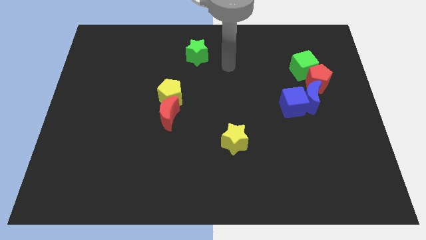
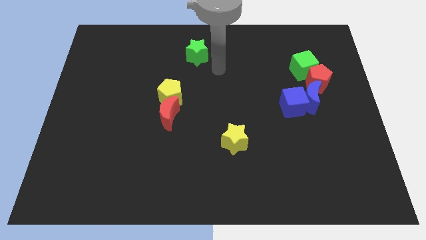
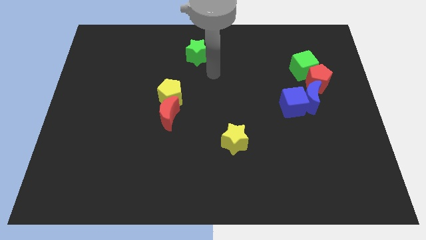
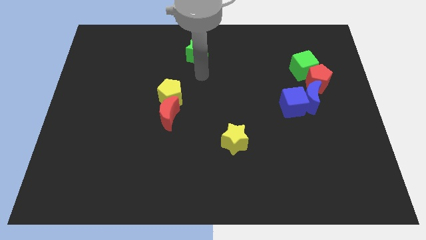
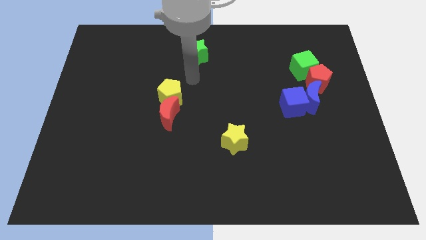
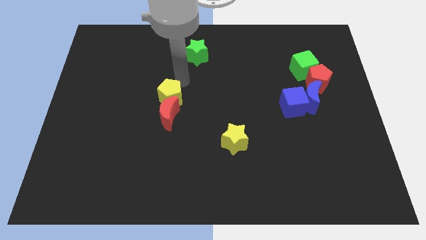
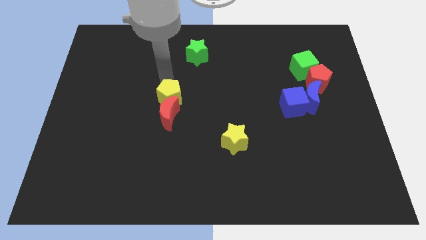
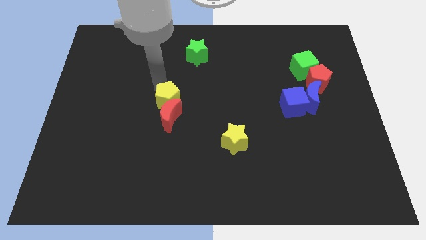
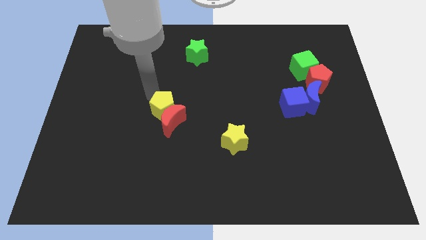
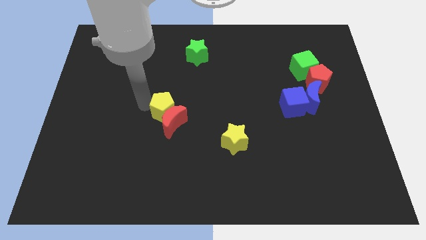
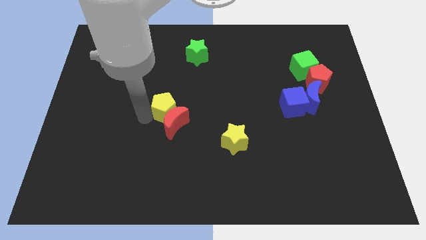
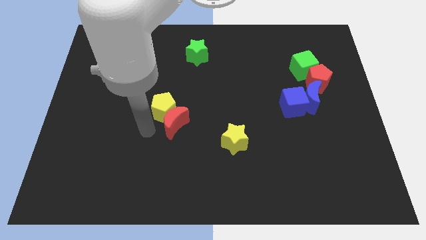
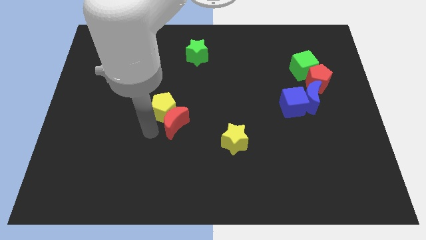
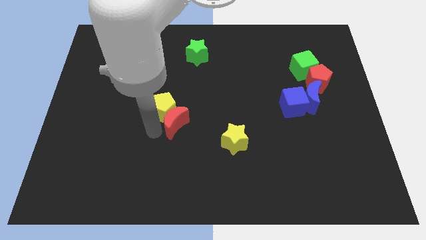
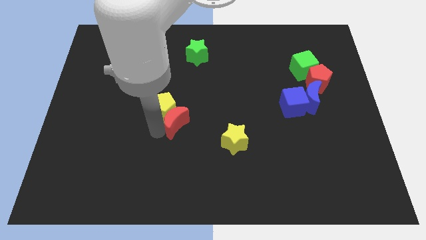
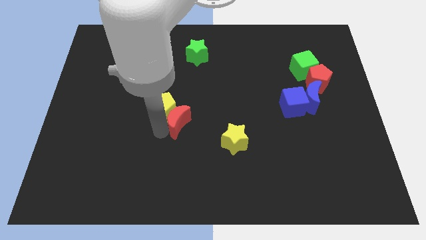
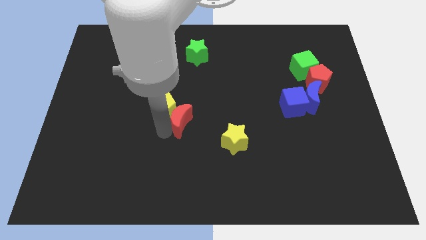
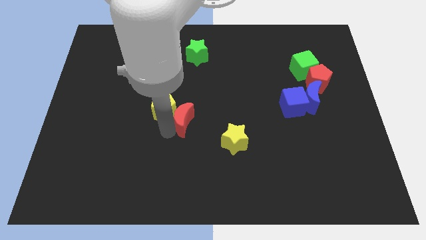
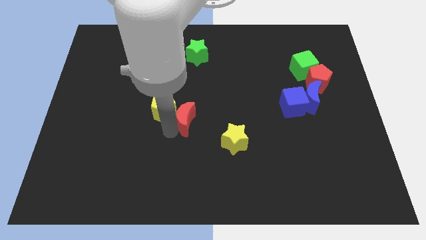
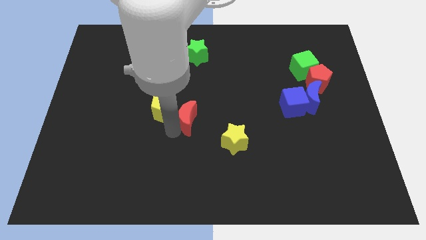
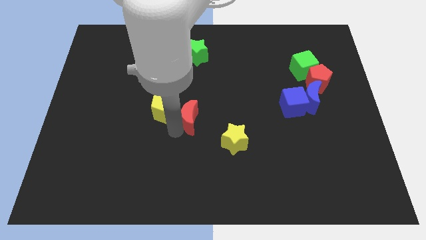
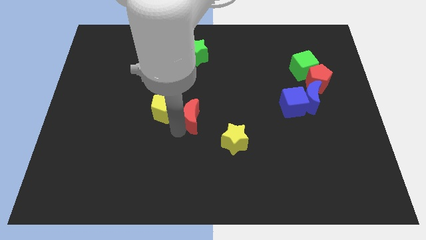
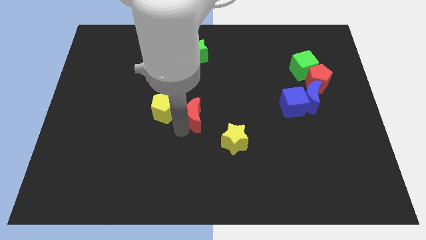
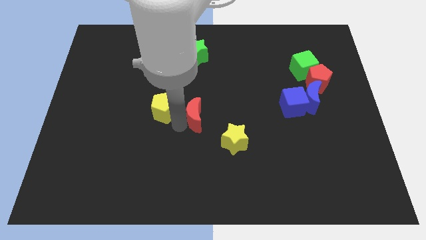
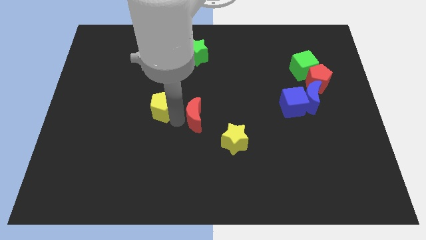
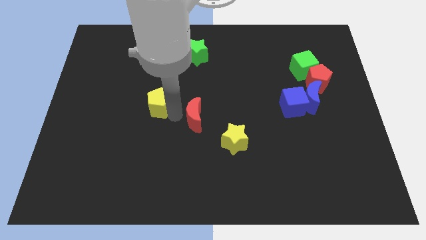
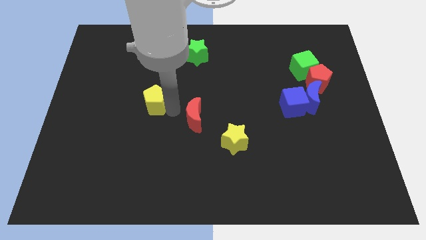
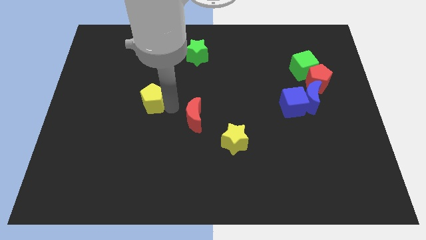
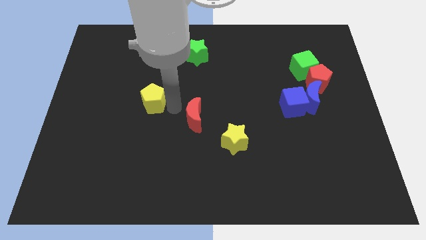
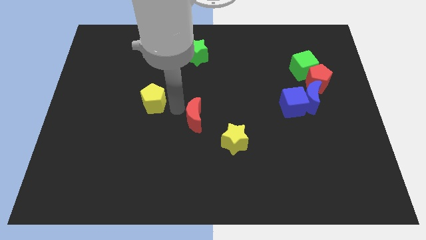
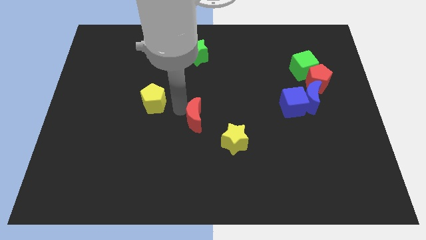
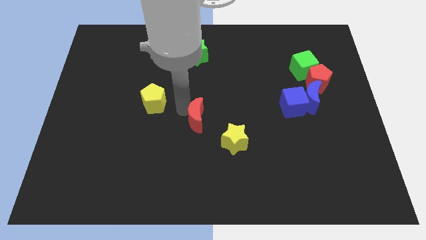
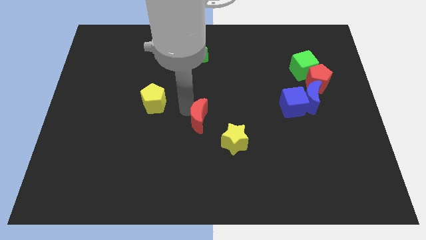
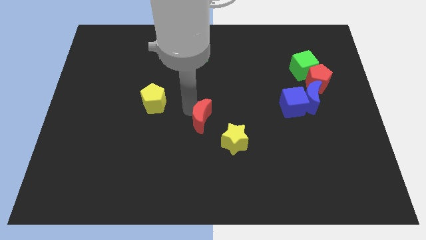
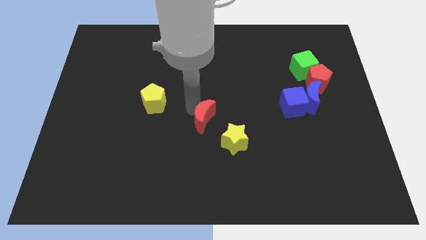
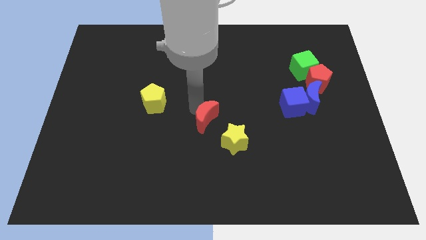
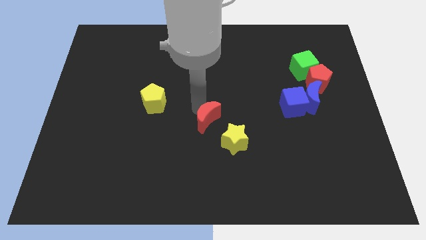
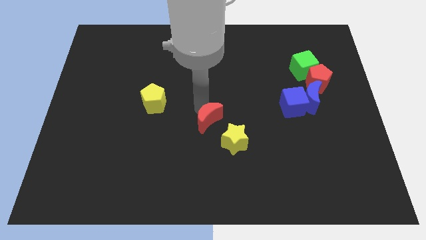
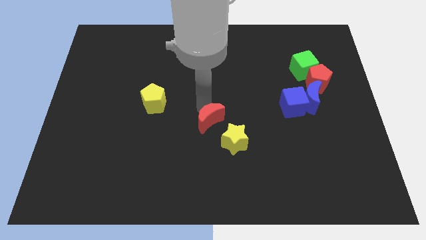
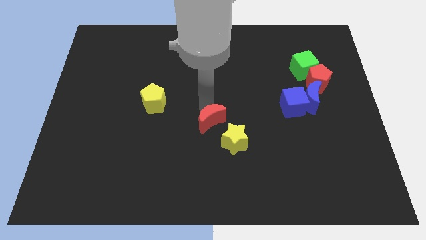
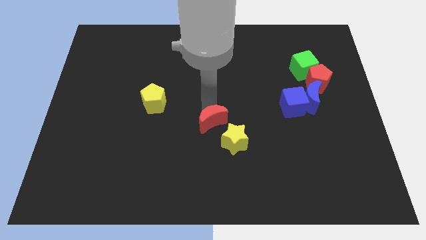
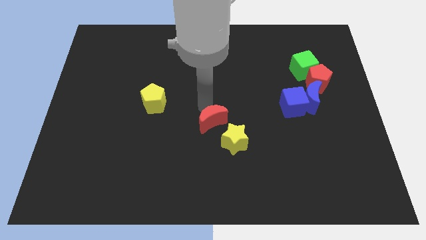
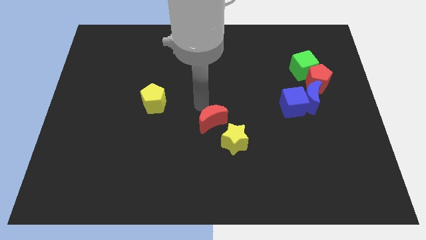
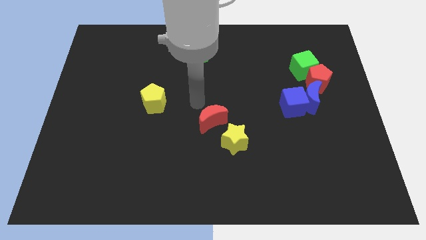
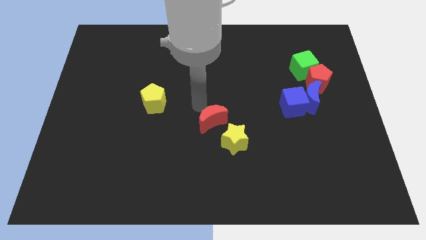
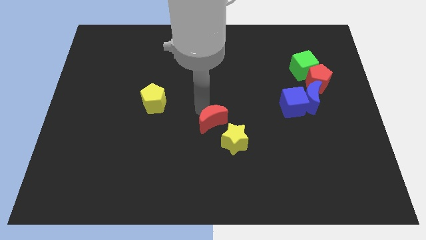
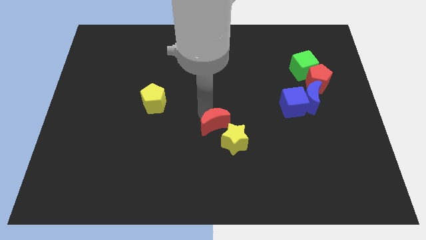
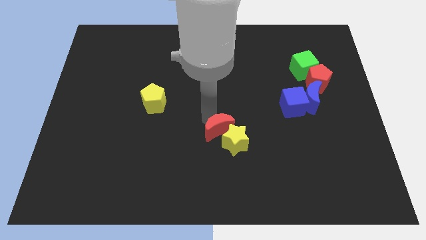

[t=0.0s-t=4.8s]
slide the red moon towards the yellow star

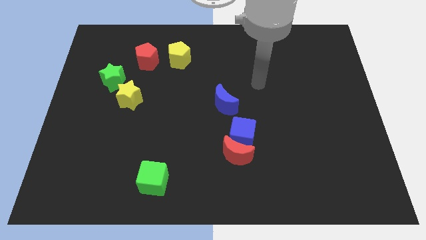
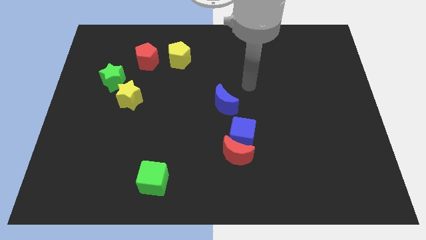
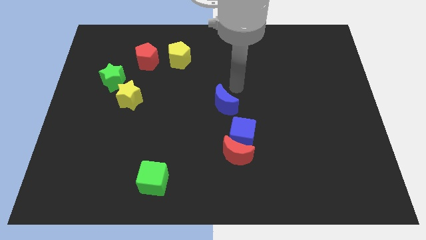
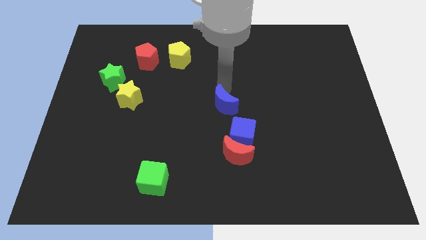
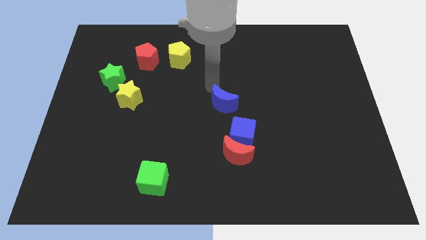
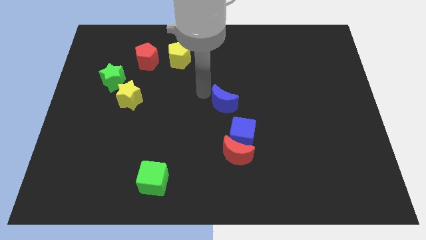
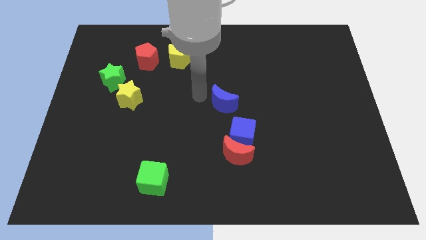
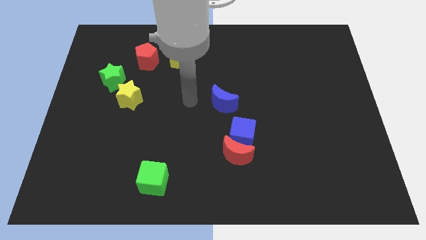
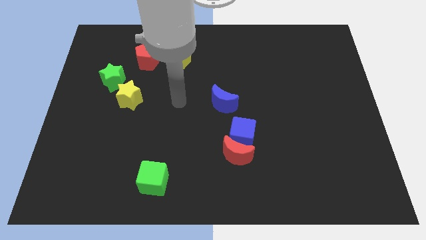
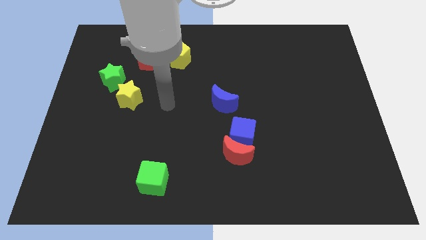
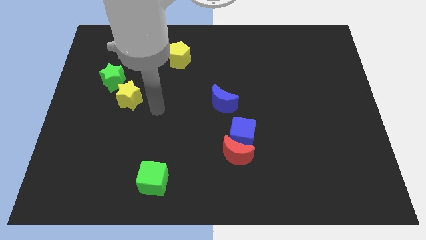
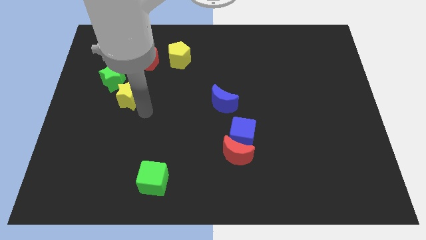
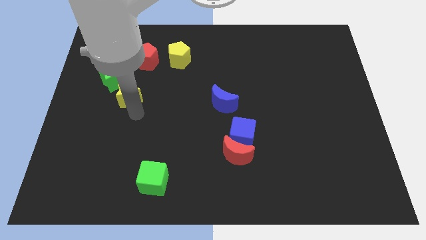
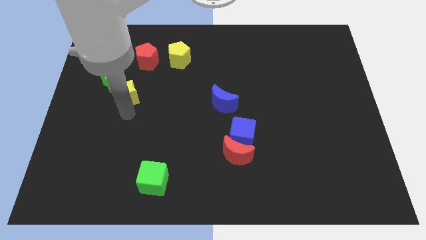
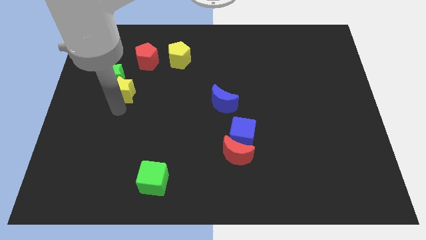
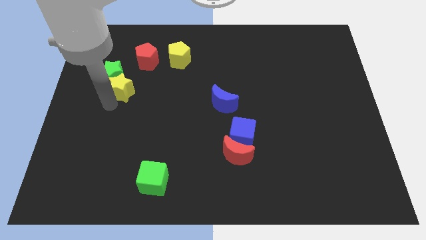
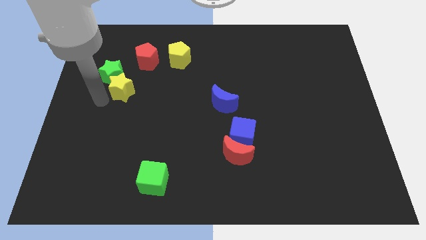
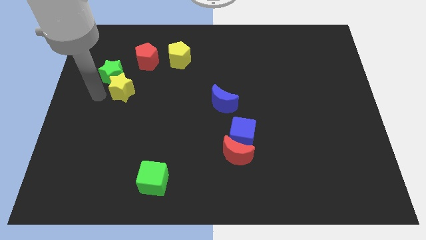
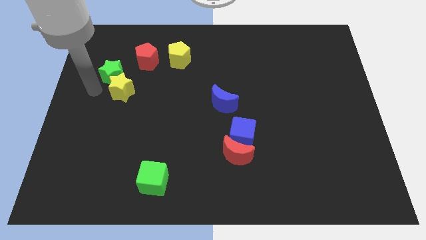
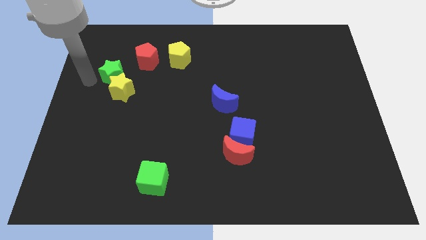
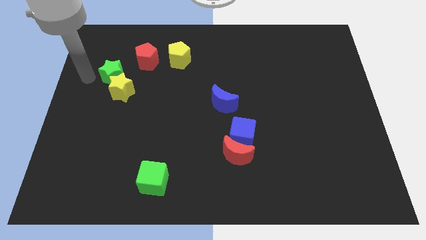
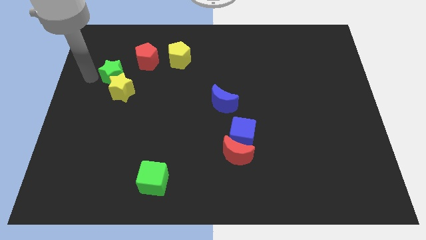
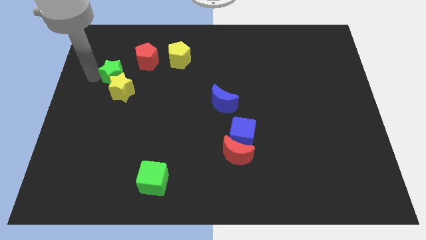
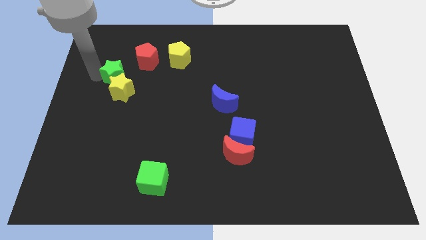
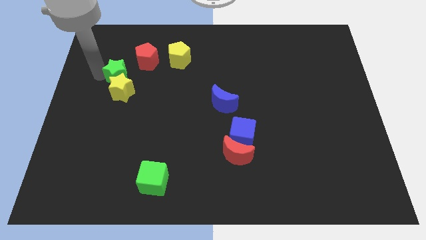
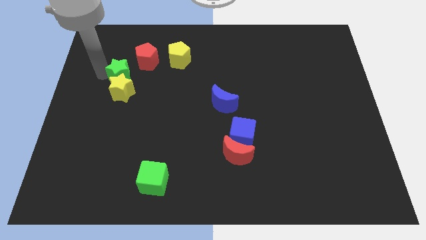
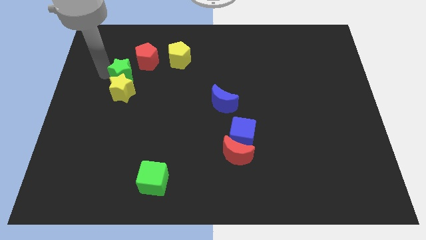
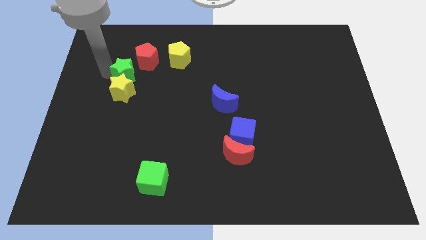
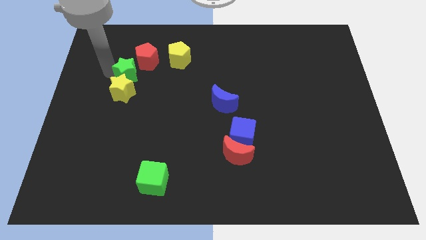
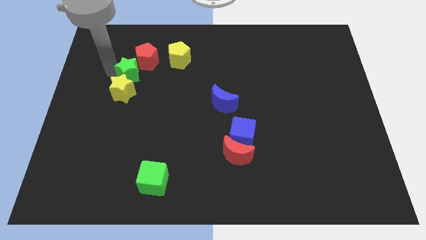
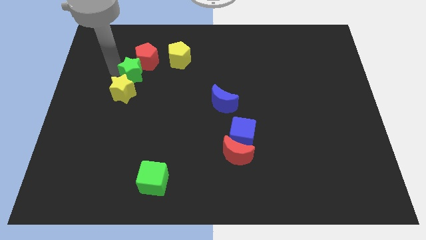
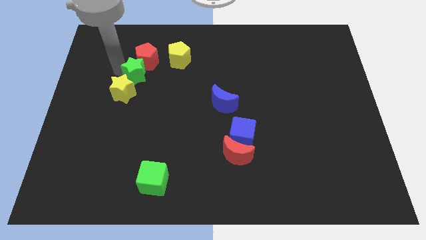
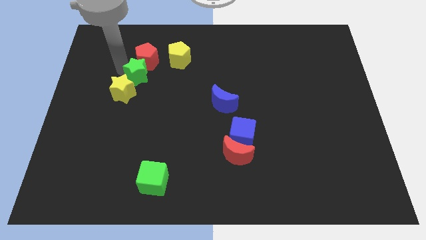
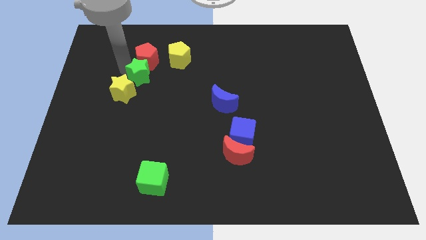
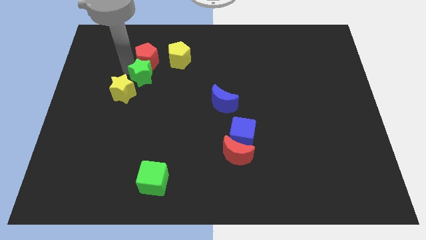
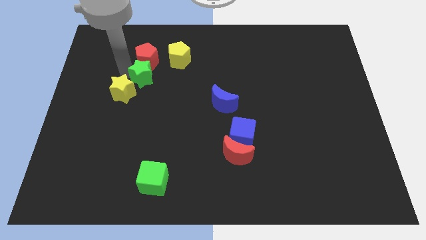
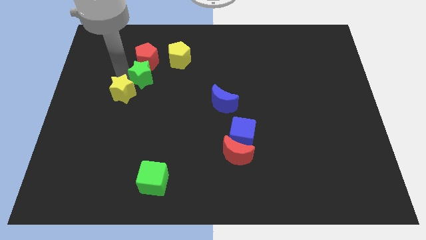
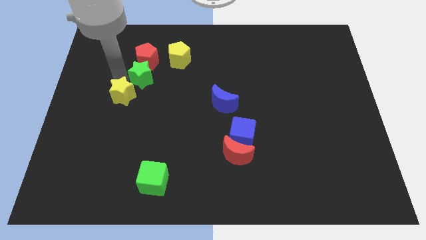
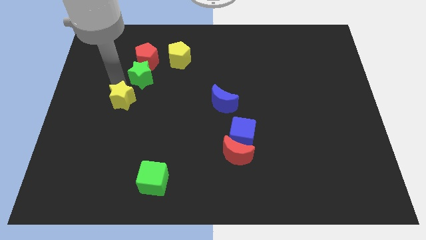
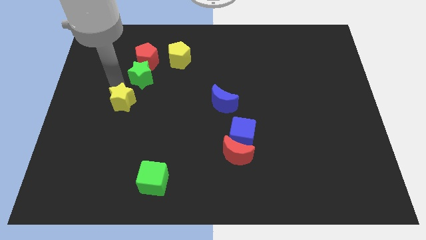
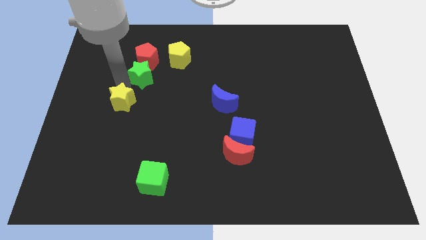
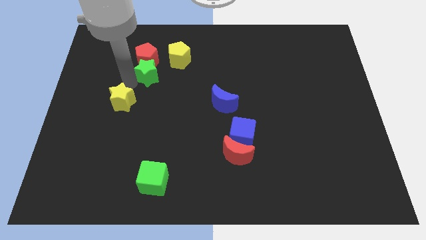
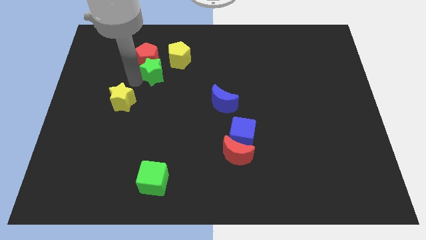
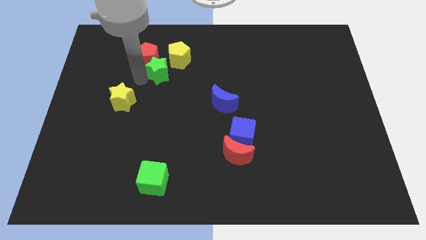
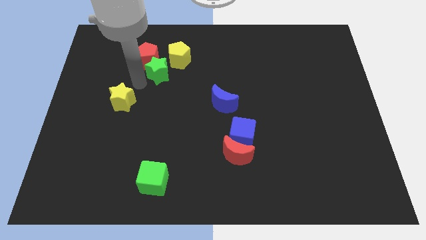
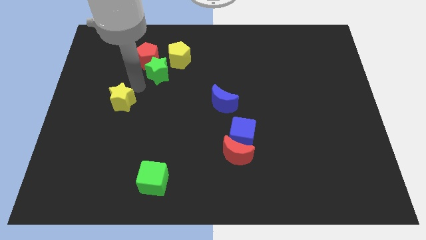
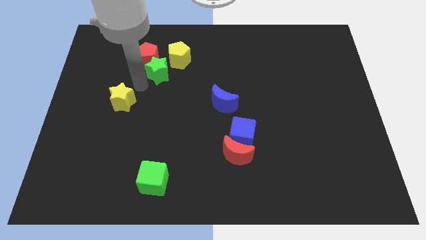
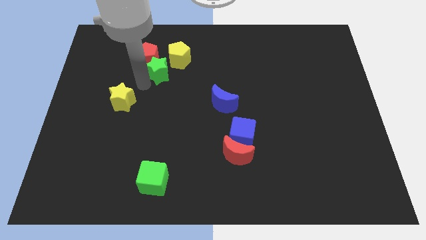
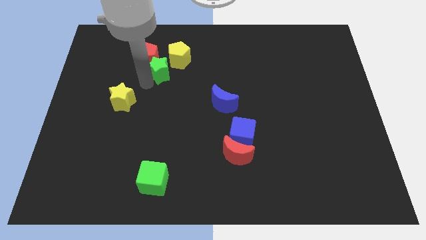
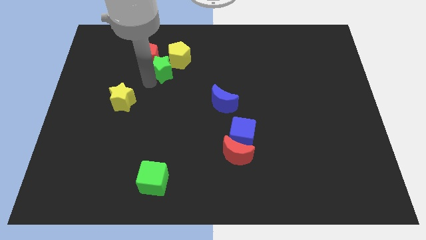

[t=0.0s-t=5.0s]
slide the green star towards the yellow pentagon
